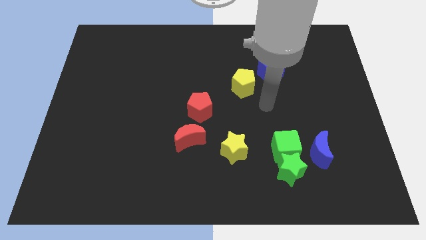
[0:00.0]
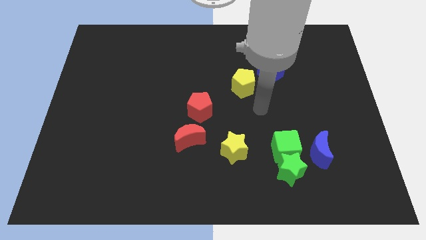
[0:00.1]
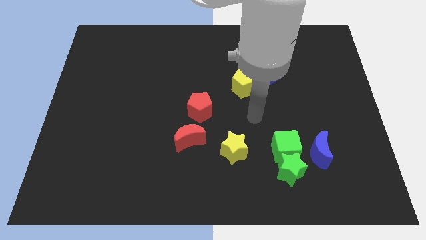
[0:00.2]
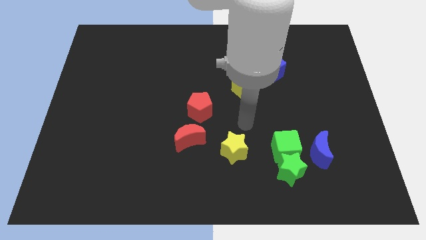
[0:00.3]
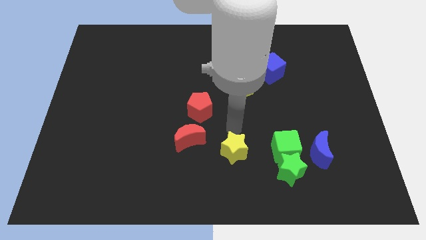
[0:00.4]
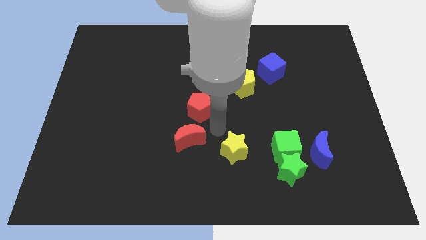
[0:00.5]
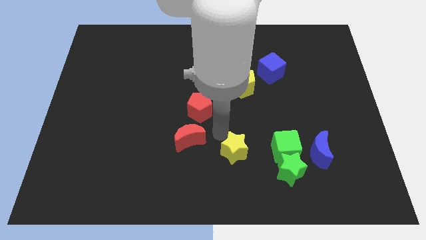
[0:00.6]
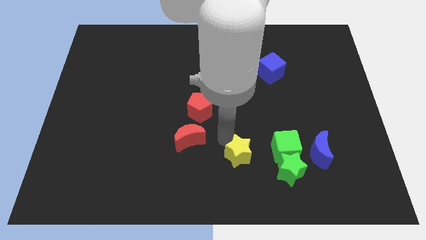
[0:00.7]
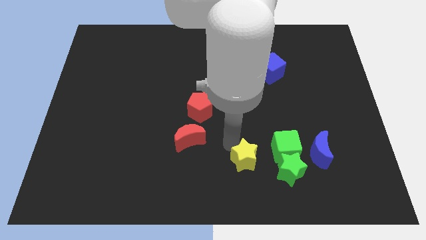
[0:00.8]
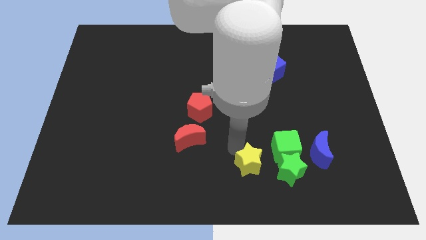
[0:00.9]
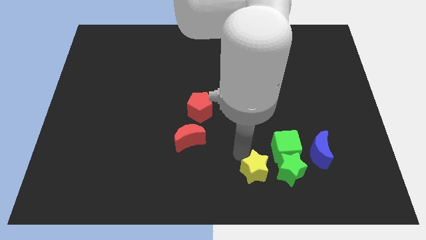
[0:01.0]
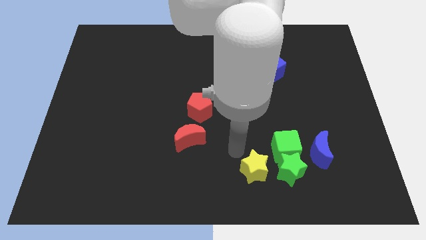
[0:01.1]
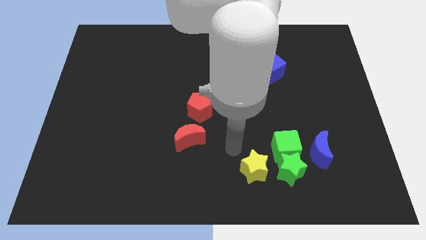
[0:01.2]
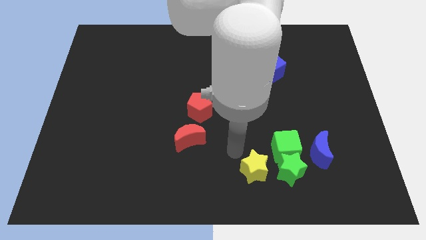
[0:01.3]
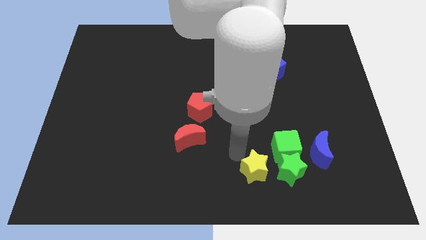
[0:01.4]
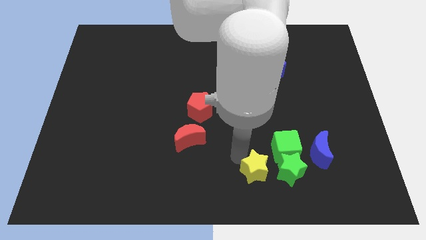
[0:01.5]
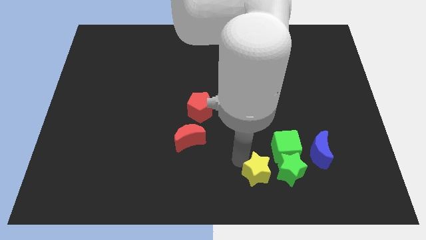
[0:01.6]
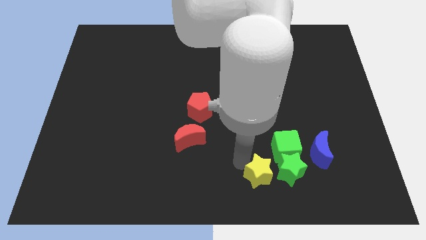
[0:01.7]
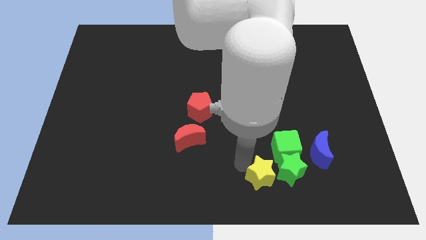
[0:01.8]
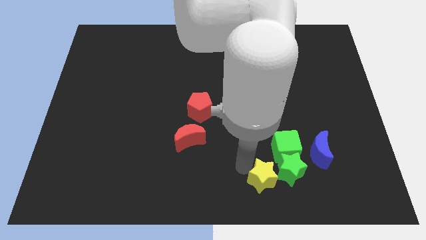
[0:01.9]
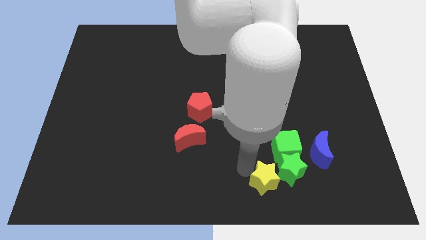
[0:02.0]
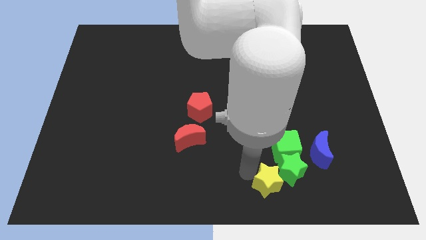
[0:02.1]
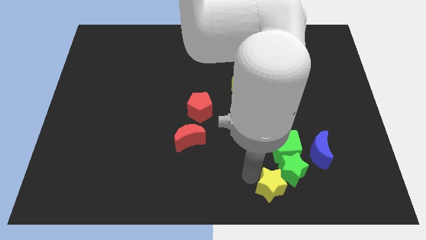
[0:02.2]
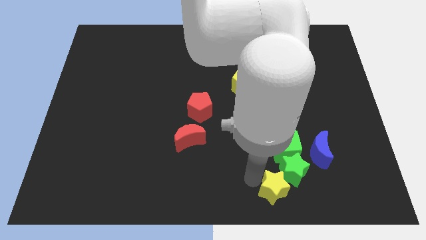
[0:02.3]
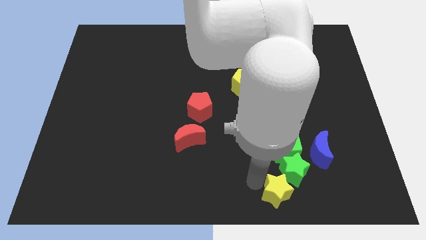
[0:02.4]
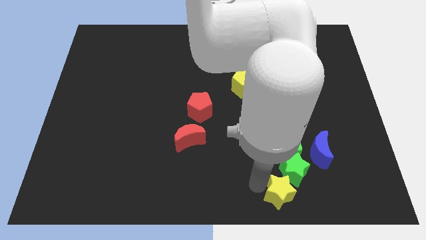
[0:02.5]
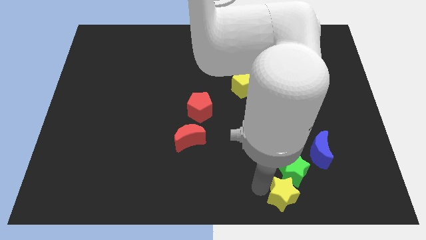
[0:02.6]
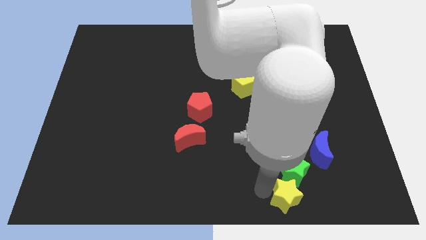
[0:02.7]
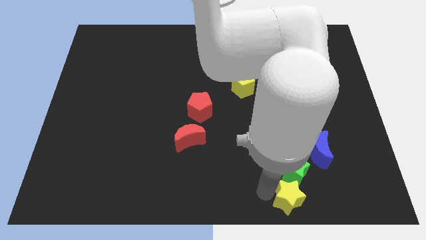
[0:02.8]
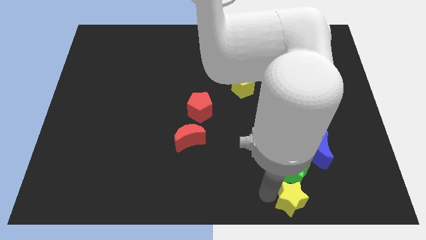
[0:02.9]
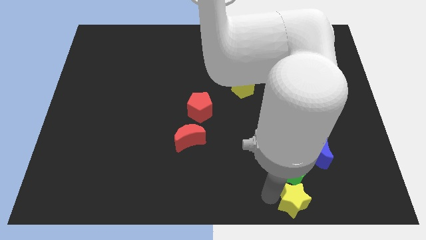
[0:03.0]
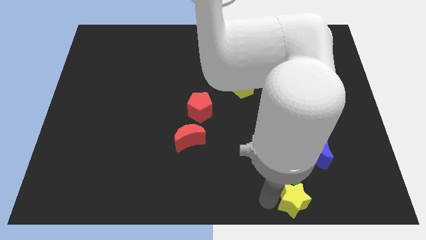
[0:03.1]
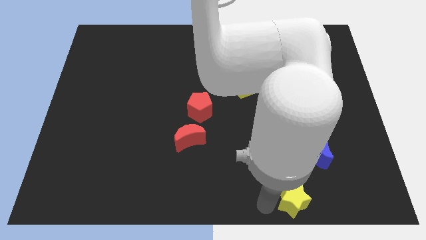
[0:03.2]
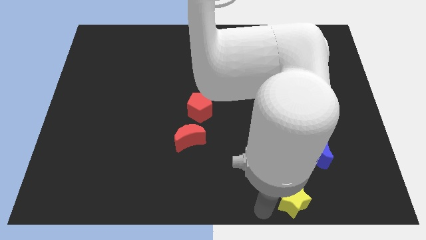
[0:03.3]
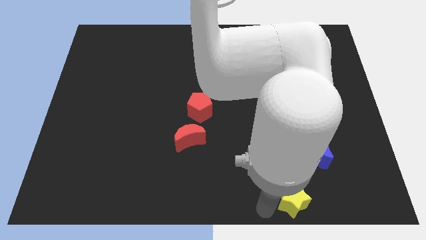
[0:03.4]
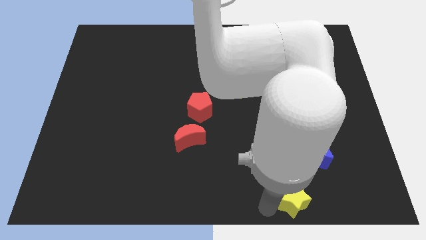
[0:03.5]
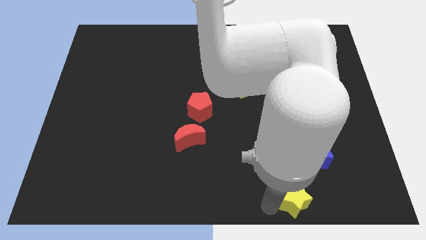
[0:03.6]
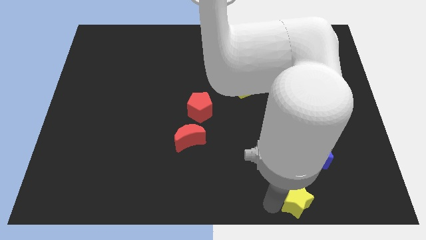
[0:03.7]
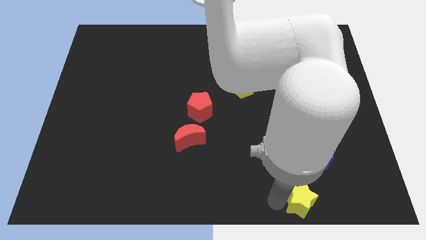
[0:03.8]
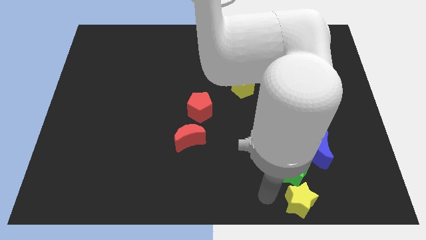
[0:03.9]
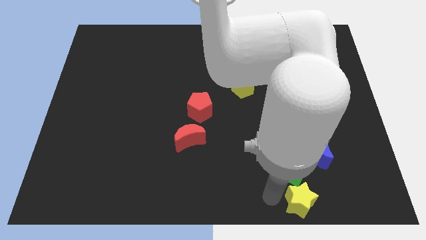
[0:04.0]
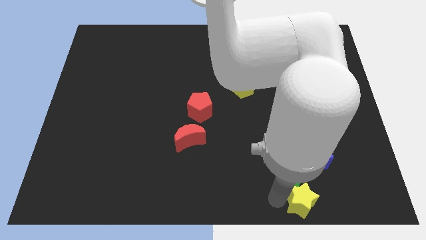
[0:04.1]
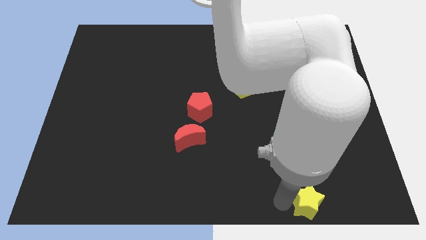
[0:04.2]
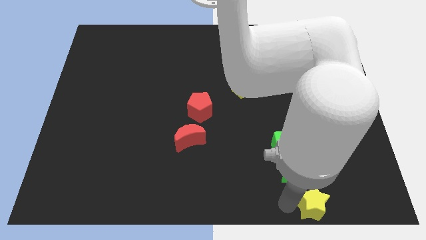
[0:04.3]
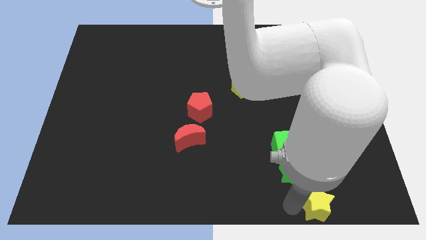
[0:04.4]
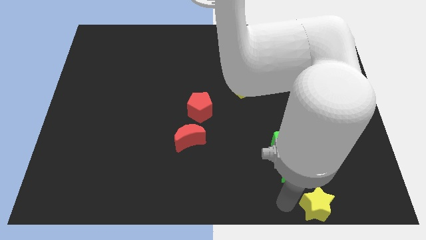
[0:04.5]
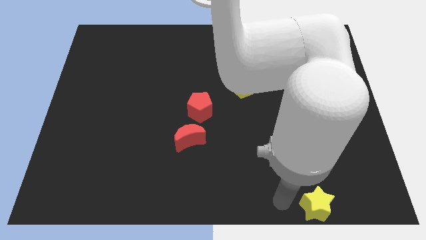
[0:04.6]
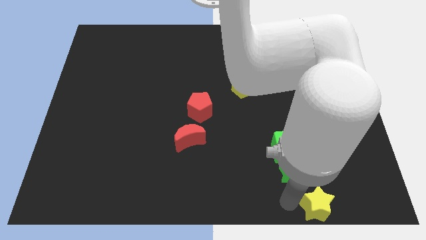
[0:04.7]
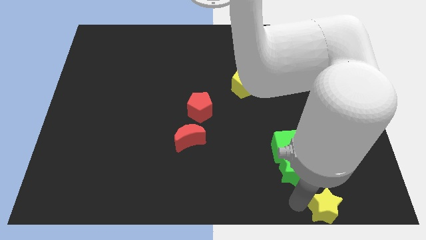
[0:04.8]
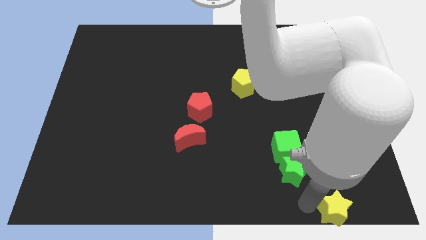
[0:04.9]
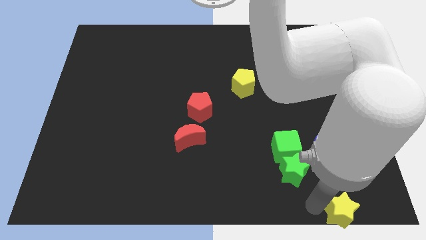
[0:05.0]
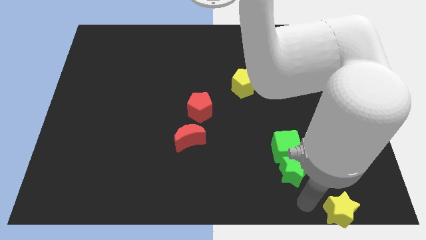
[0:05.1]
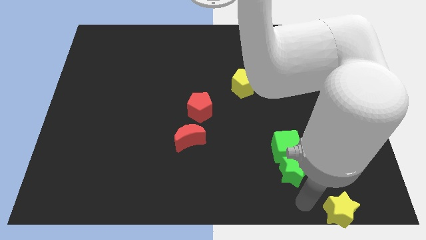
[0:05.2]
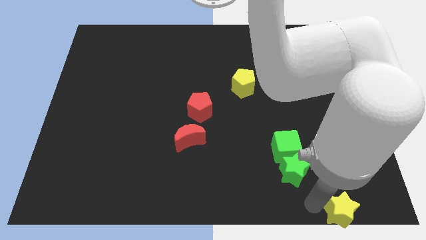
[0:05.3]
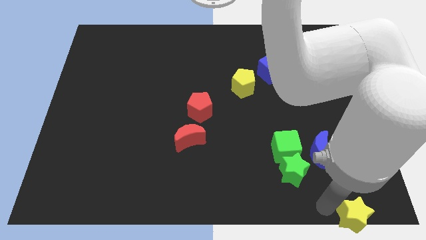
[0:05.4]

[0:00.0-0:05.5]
move the yellow star to the bottom right of the board
